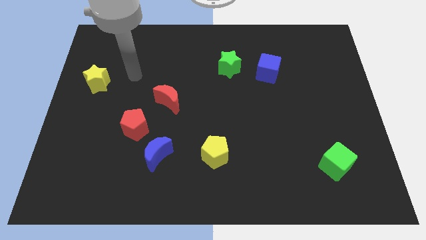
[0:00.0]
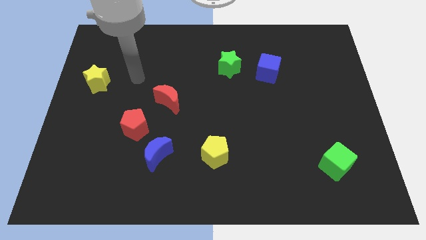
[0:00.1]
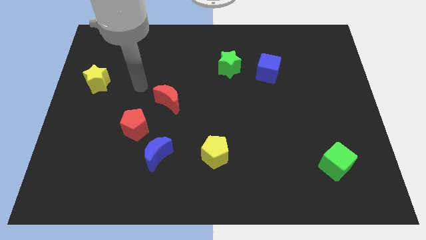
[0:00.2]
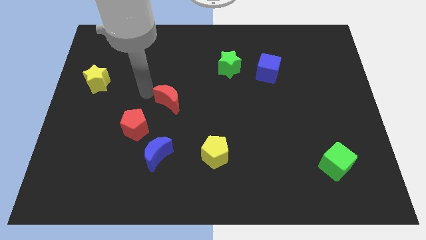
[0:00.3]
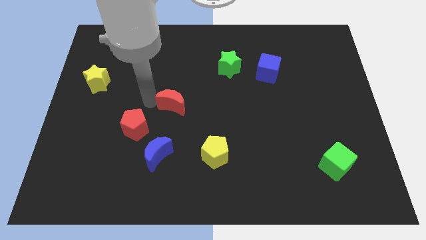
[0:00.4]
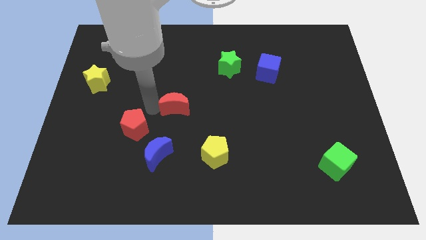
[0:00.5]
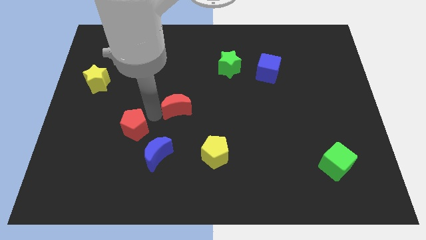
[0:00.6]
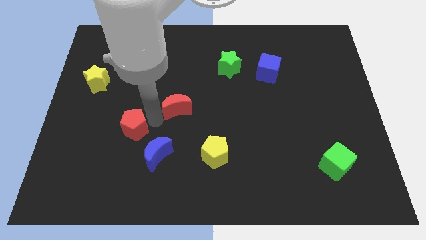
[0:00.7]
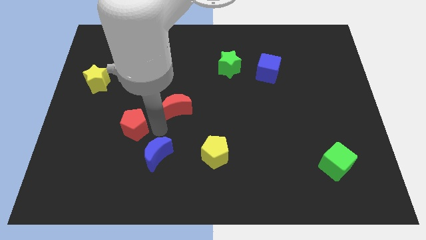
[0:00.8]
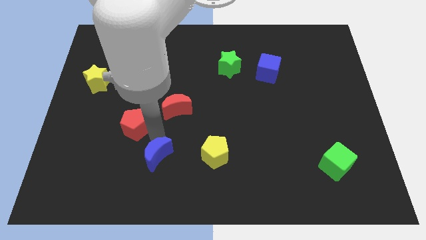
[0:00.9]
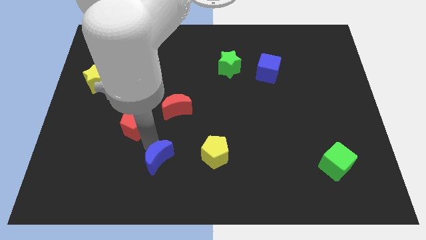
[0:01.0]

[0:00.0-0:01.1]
pull the red pentagon apart from the blue moon

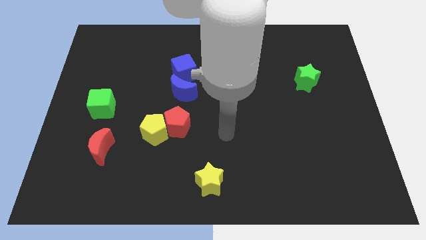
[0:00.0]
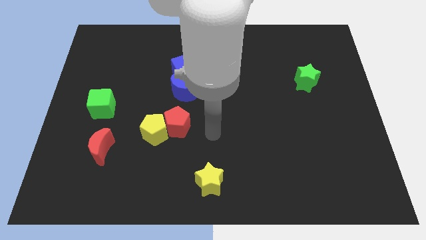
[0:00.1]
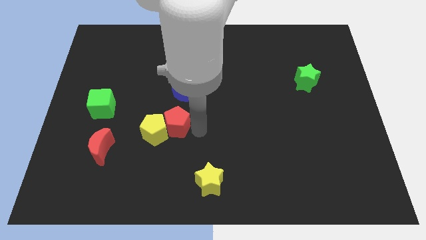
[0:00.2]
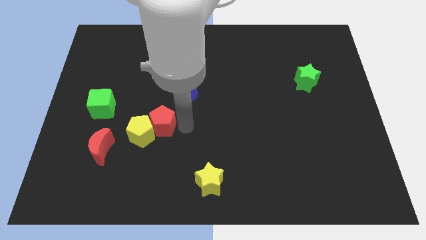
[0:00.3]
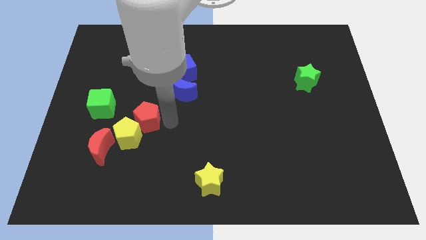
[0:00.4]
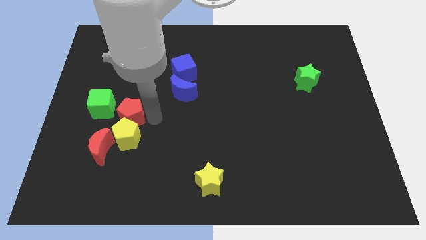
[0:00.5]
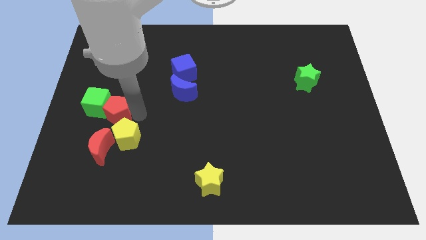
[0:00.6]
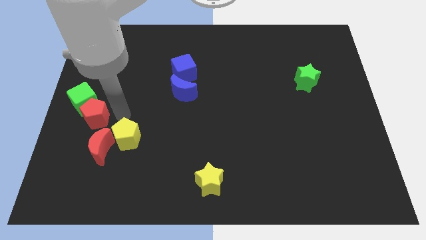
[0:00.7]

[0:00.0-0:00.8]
pull the yellow pentagon apart from the red pentagon

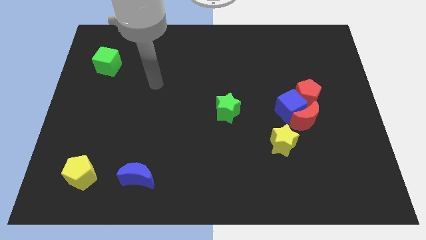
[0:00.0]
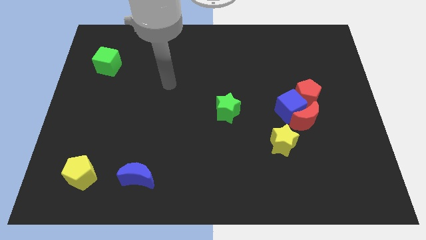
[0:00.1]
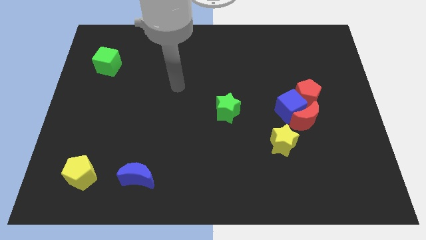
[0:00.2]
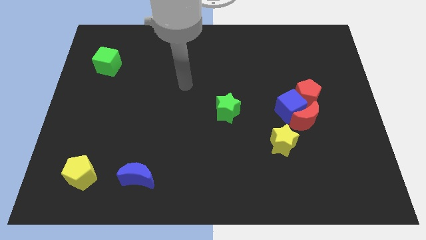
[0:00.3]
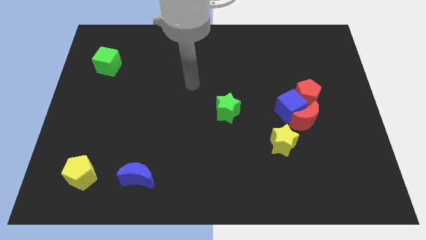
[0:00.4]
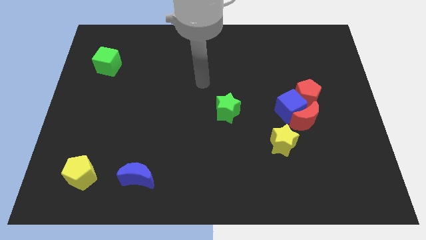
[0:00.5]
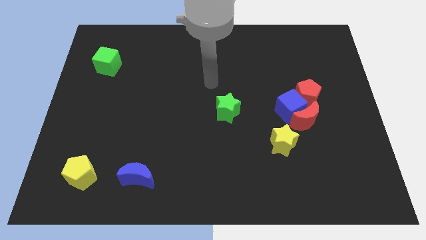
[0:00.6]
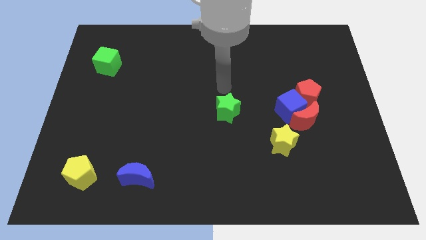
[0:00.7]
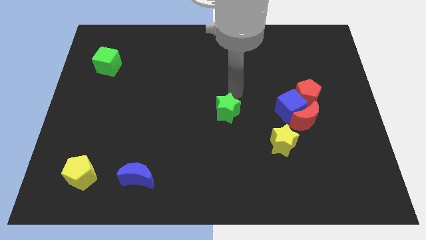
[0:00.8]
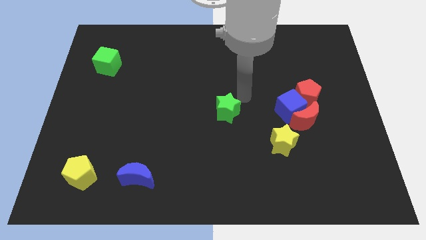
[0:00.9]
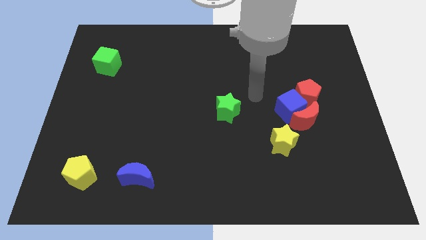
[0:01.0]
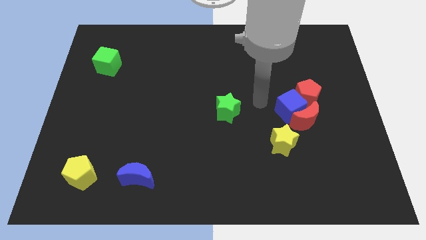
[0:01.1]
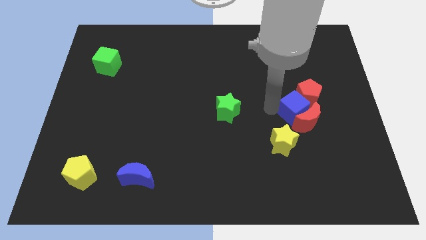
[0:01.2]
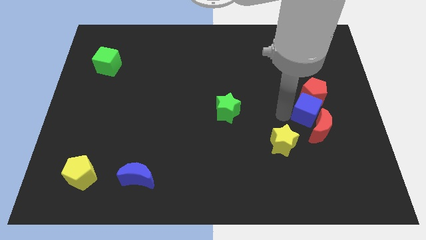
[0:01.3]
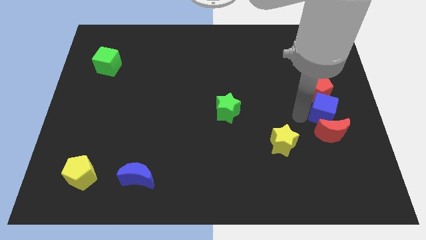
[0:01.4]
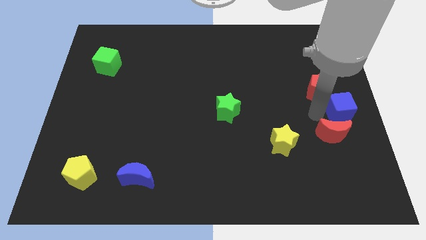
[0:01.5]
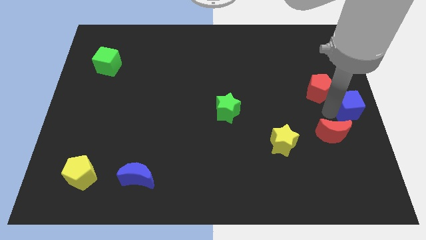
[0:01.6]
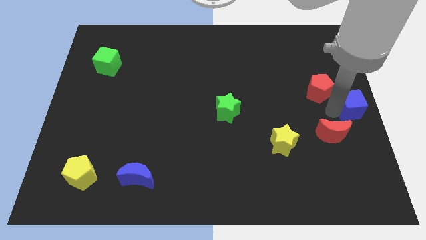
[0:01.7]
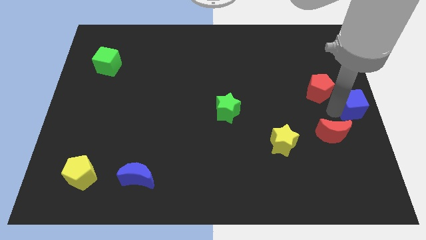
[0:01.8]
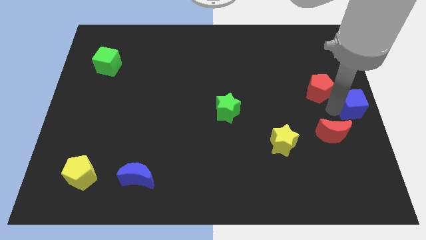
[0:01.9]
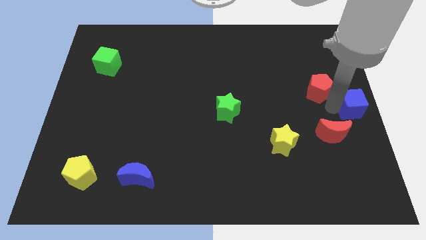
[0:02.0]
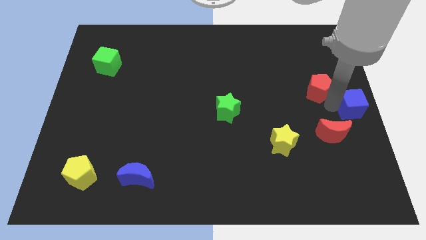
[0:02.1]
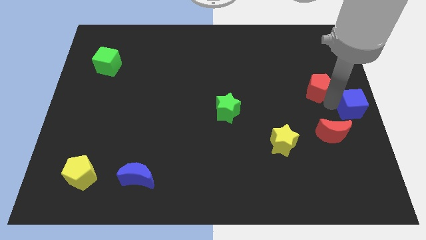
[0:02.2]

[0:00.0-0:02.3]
separate the red pentagon from the blue cube and red moon

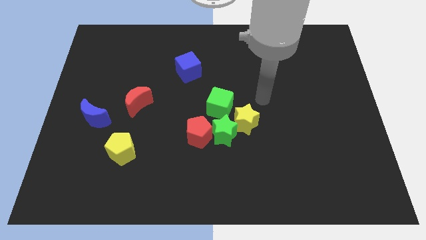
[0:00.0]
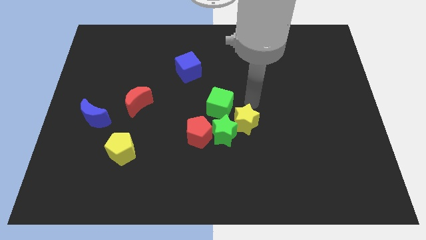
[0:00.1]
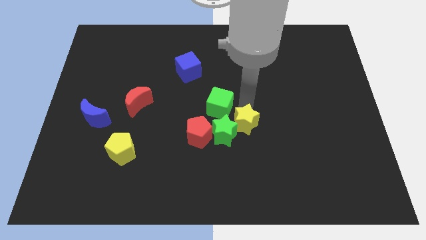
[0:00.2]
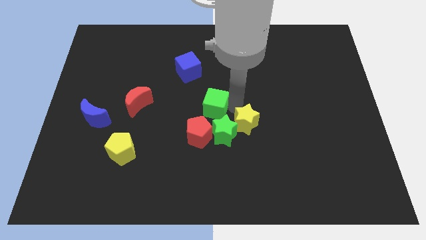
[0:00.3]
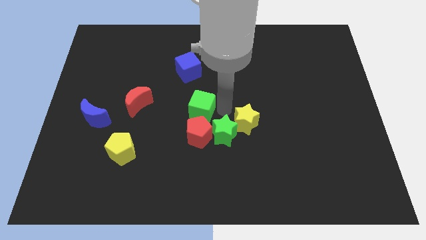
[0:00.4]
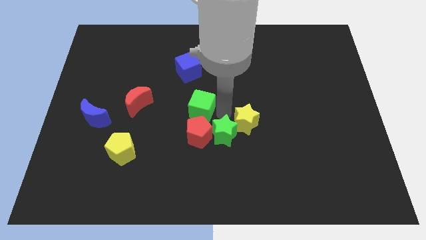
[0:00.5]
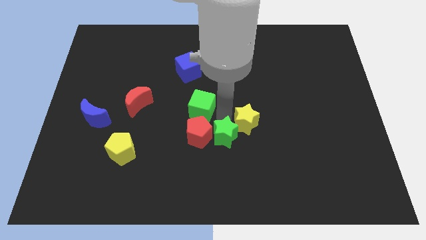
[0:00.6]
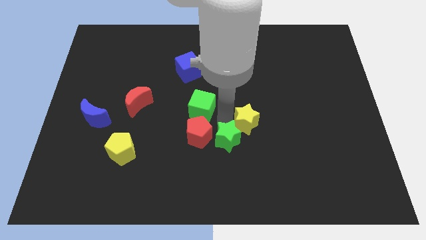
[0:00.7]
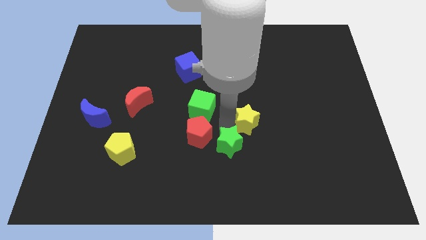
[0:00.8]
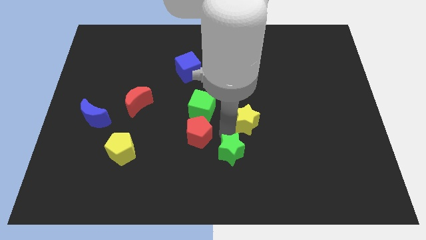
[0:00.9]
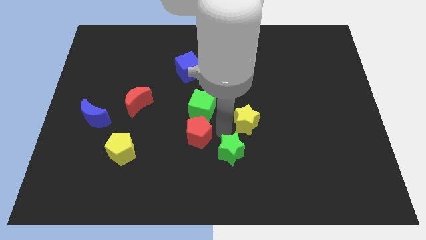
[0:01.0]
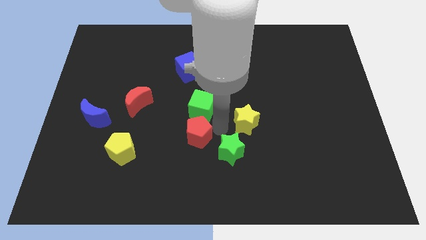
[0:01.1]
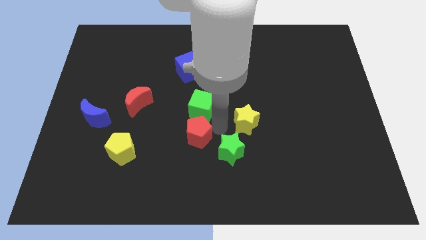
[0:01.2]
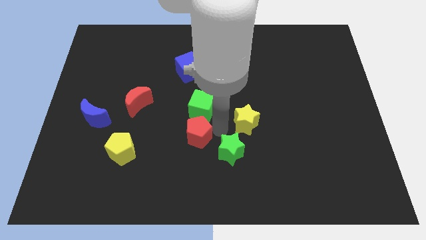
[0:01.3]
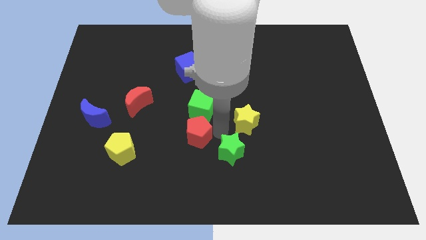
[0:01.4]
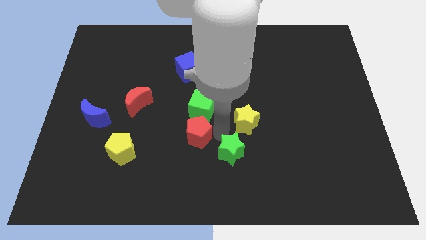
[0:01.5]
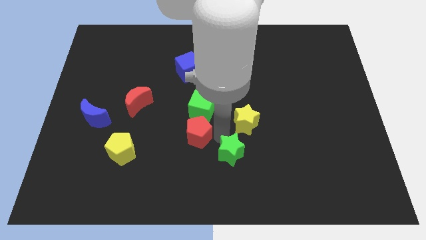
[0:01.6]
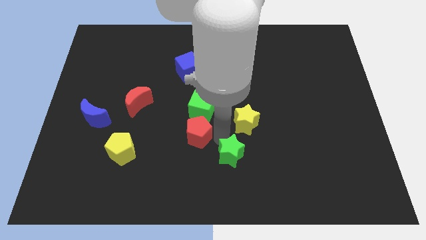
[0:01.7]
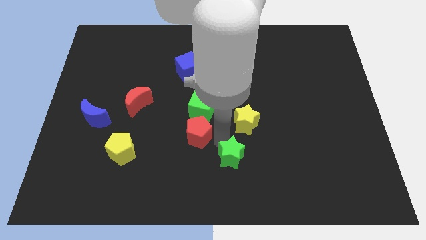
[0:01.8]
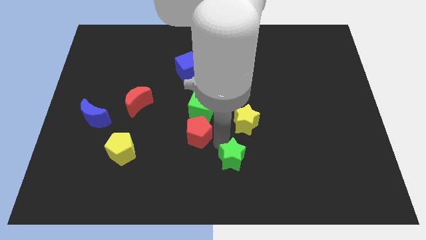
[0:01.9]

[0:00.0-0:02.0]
separate the green star from the yellow star, red pentagon, and green cube

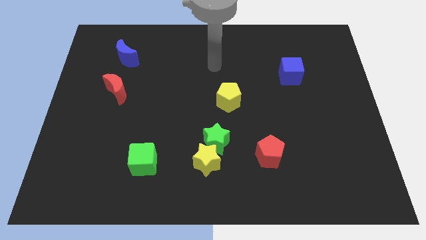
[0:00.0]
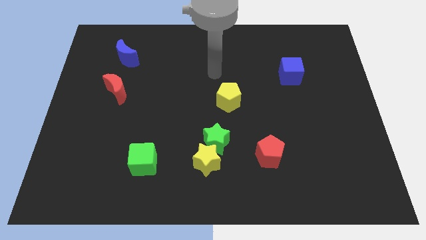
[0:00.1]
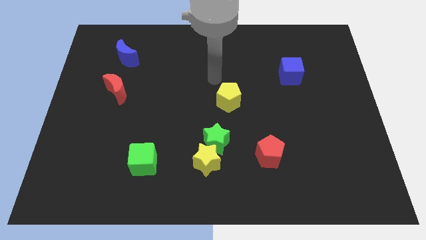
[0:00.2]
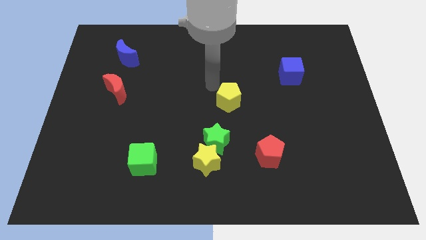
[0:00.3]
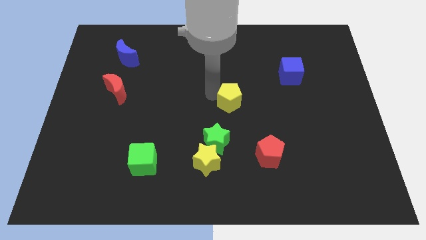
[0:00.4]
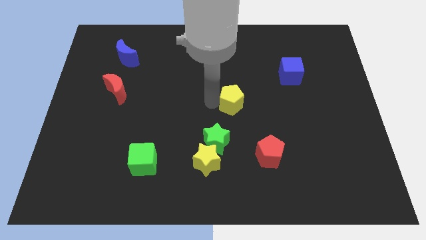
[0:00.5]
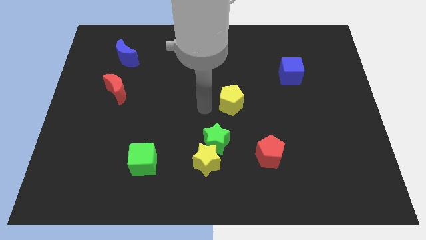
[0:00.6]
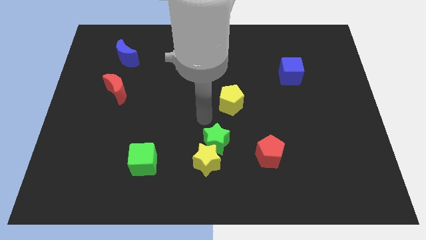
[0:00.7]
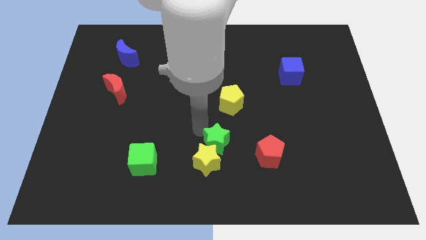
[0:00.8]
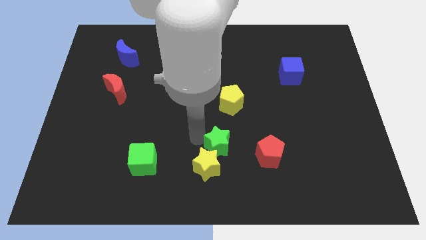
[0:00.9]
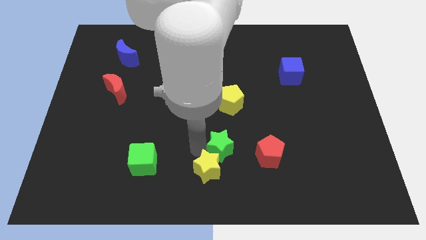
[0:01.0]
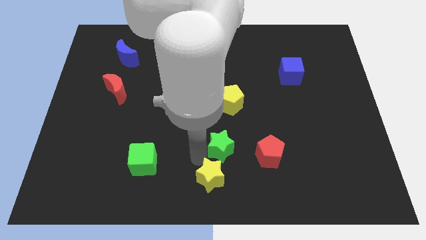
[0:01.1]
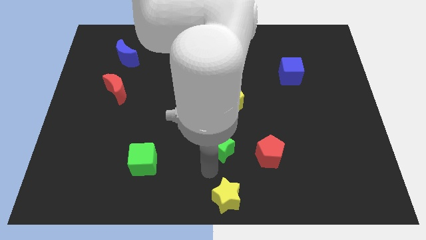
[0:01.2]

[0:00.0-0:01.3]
move the green star away from the yellow star

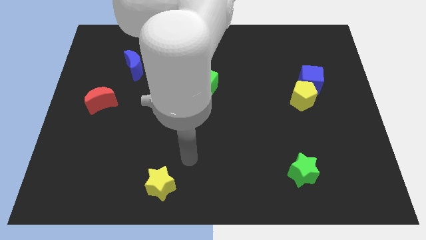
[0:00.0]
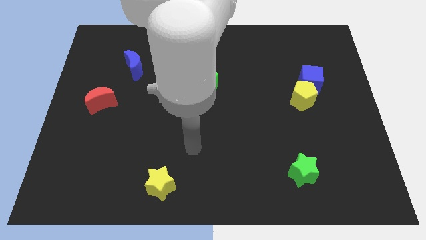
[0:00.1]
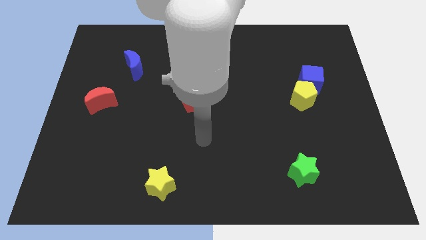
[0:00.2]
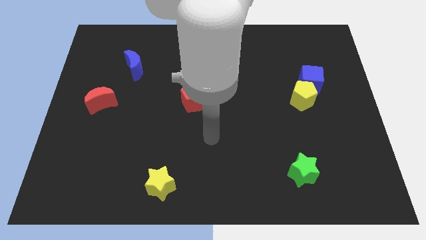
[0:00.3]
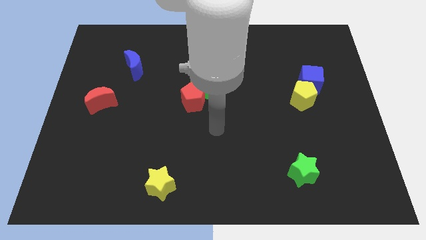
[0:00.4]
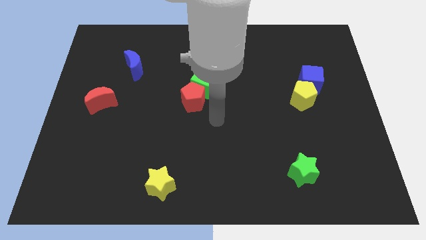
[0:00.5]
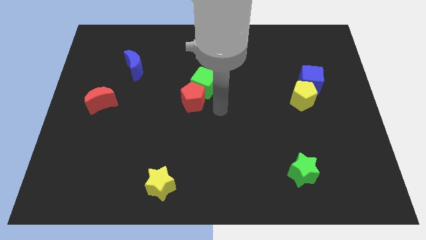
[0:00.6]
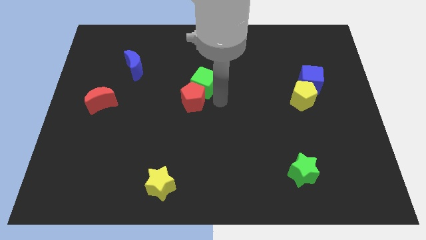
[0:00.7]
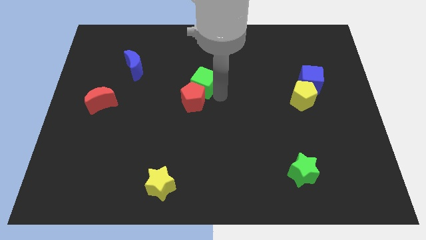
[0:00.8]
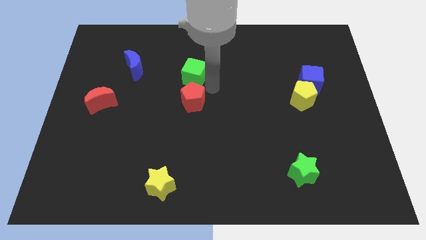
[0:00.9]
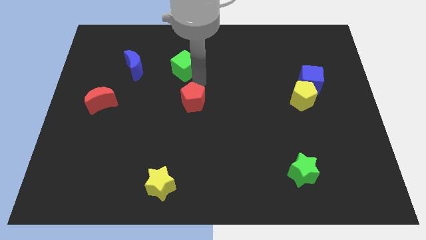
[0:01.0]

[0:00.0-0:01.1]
move the red pentagon away from the green cube

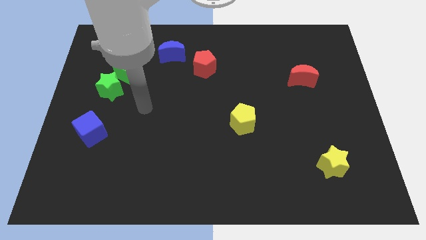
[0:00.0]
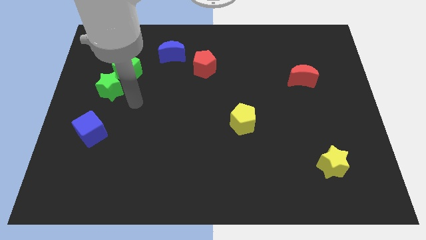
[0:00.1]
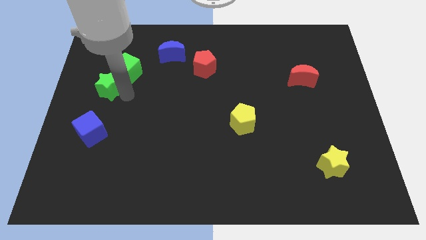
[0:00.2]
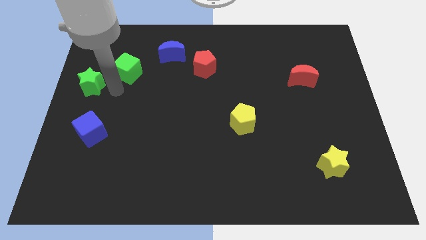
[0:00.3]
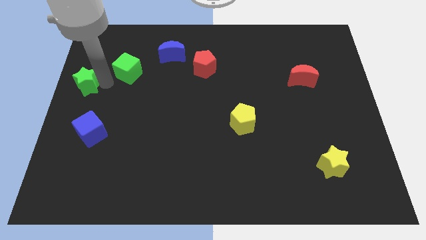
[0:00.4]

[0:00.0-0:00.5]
pull the green cube apart from the green star

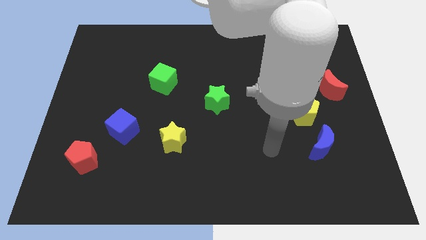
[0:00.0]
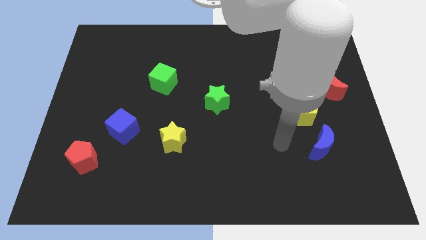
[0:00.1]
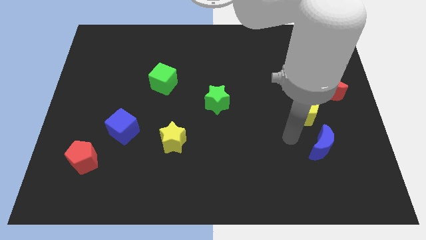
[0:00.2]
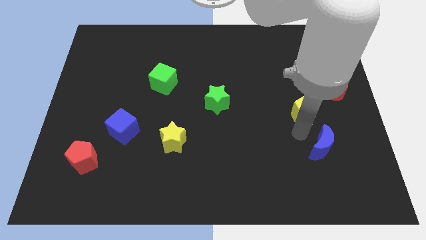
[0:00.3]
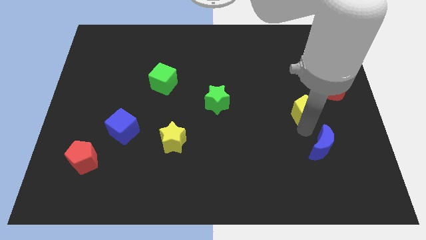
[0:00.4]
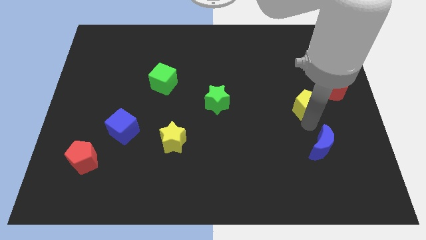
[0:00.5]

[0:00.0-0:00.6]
separate the blue moon from the yellow pentagon
